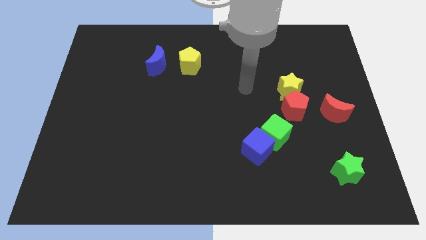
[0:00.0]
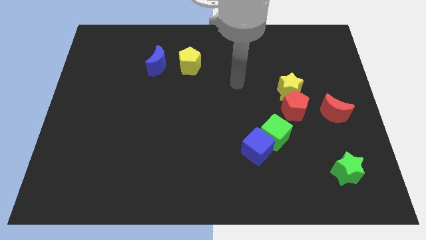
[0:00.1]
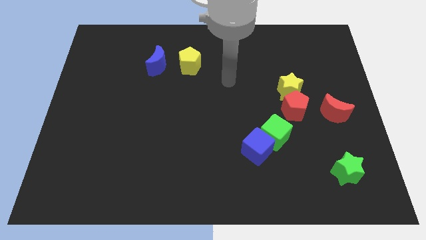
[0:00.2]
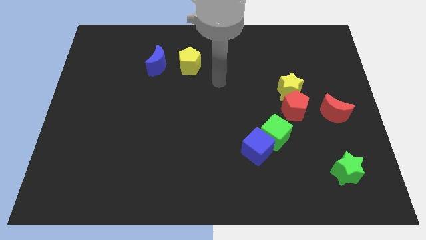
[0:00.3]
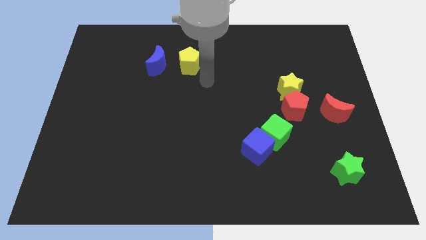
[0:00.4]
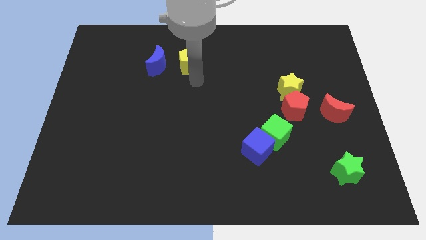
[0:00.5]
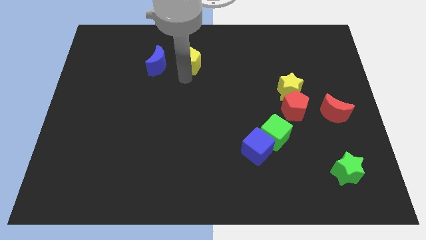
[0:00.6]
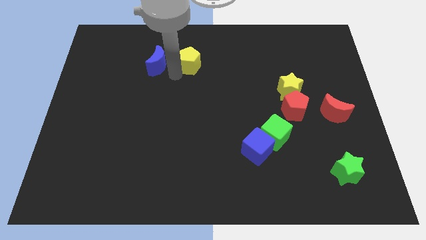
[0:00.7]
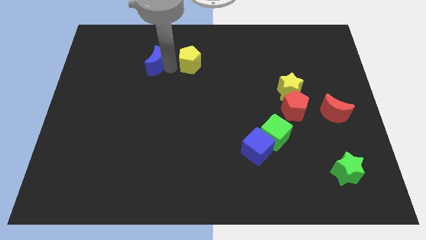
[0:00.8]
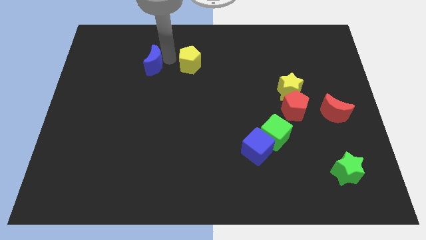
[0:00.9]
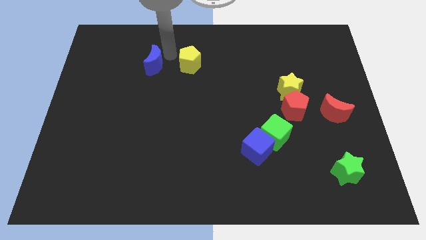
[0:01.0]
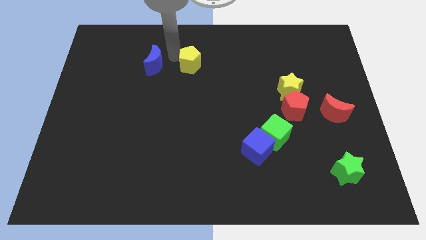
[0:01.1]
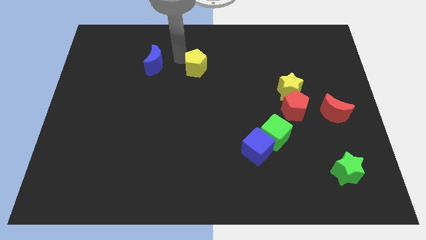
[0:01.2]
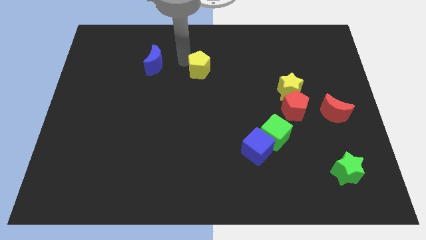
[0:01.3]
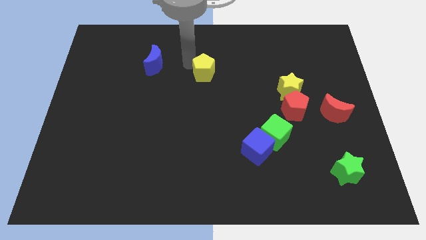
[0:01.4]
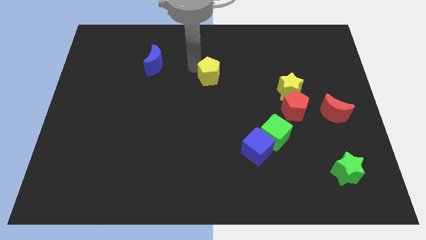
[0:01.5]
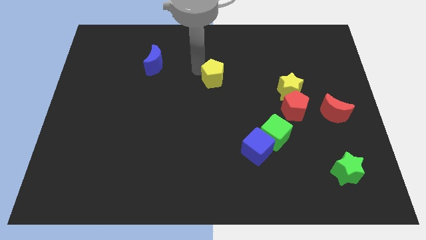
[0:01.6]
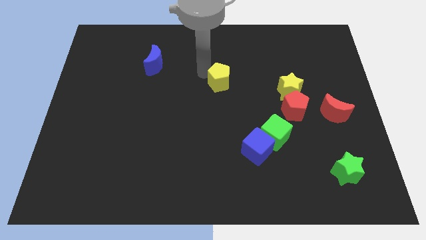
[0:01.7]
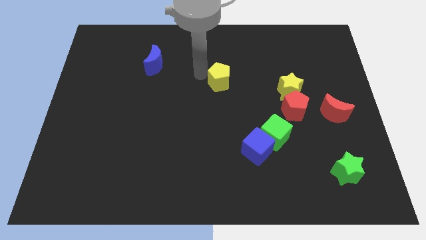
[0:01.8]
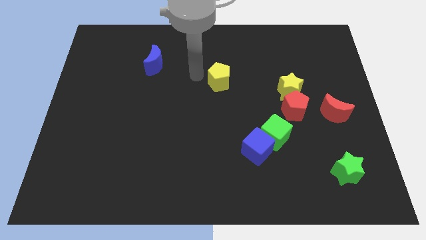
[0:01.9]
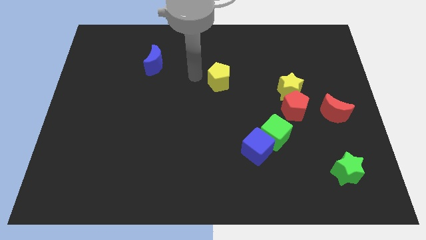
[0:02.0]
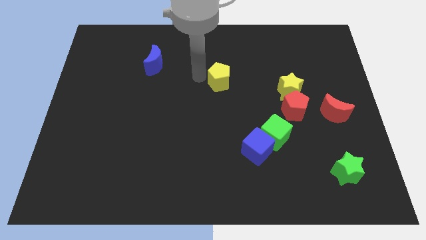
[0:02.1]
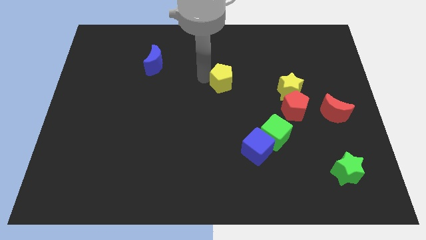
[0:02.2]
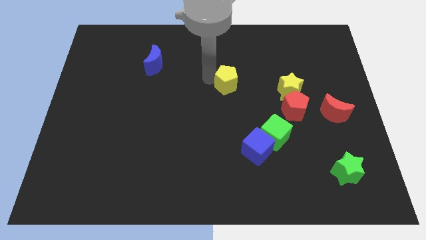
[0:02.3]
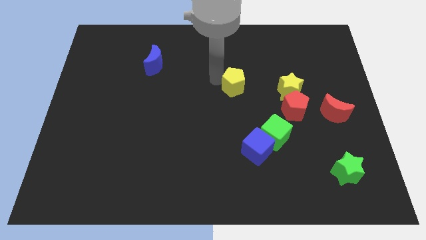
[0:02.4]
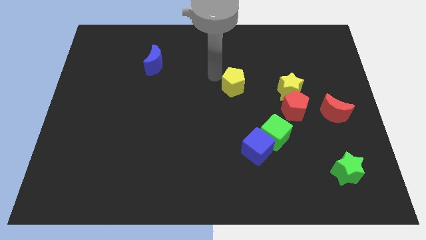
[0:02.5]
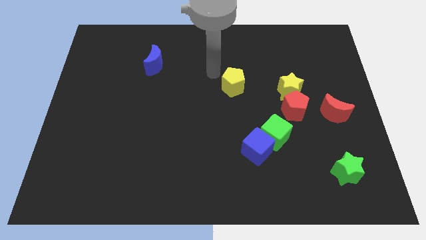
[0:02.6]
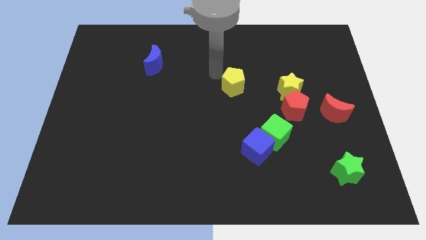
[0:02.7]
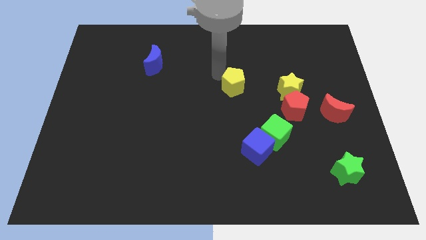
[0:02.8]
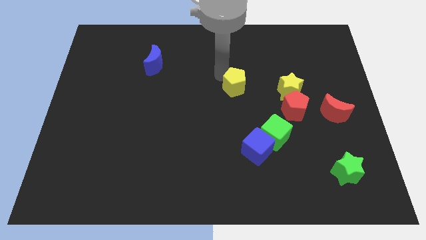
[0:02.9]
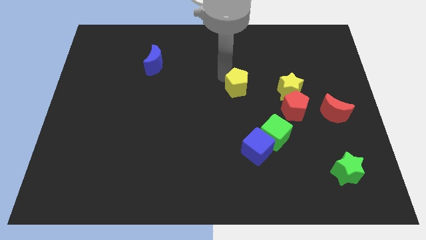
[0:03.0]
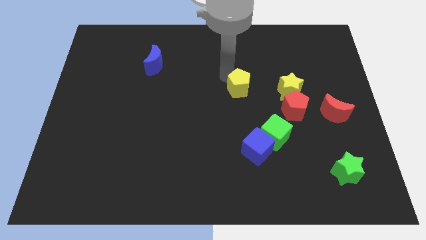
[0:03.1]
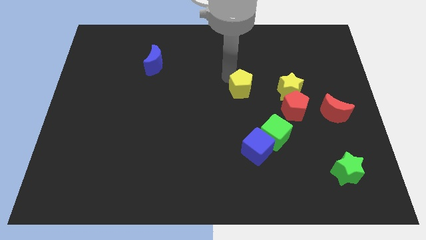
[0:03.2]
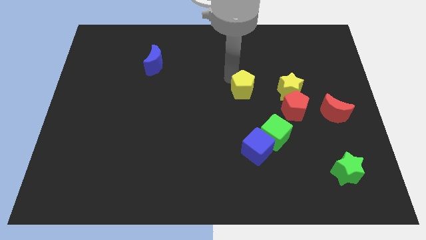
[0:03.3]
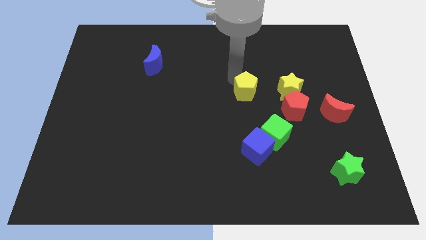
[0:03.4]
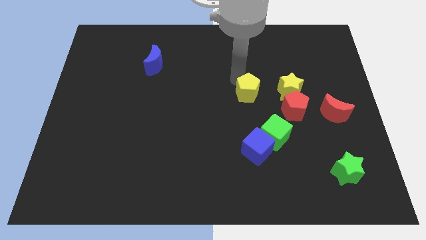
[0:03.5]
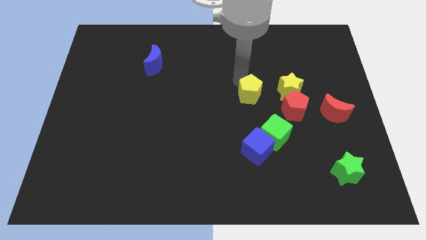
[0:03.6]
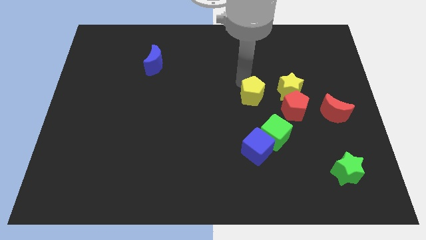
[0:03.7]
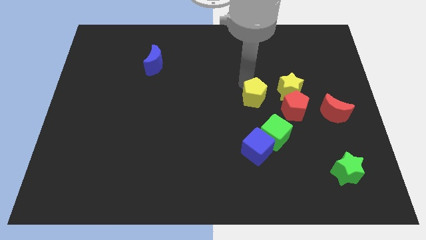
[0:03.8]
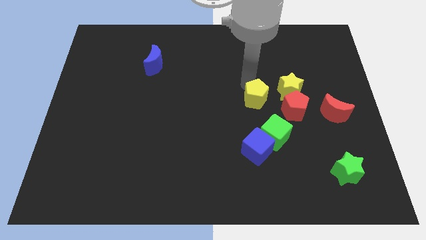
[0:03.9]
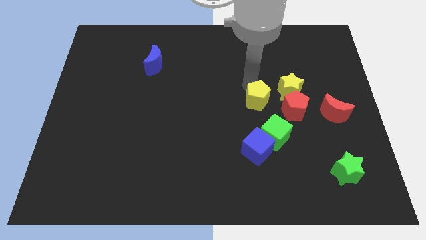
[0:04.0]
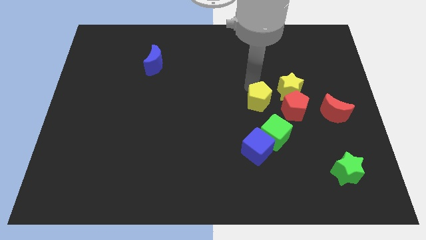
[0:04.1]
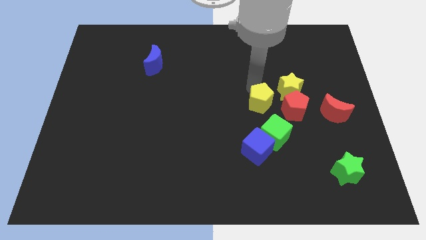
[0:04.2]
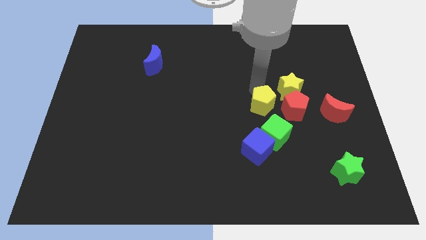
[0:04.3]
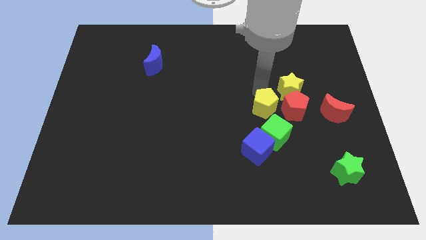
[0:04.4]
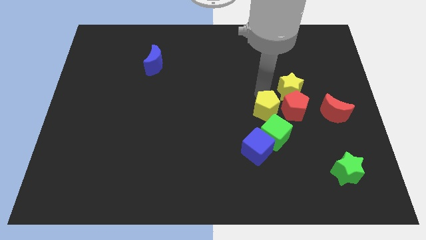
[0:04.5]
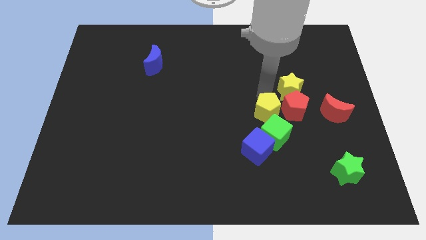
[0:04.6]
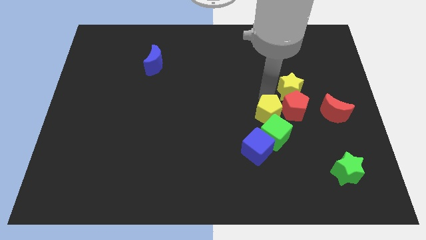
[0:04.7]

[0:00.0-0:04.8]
move the yellow pentagon to the top right side of the blue cube

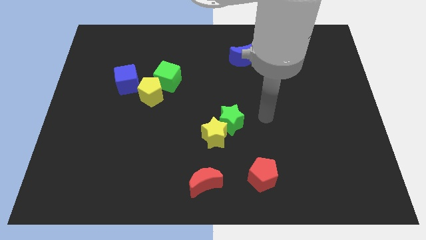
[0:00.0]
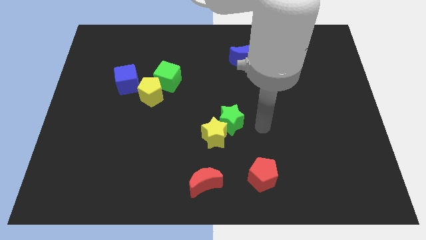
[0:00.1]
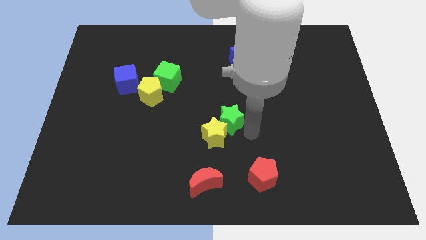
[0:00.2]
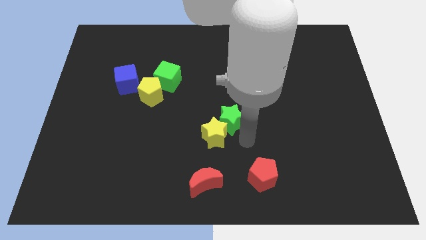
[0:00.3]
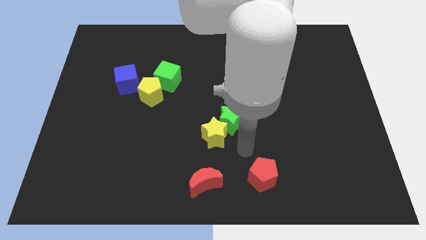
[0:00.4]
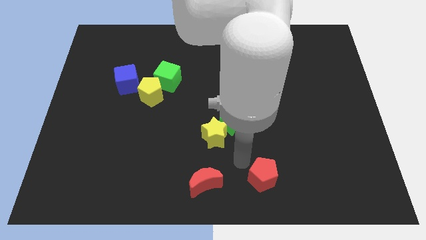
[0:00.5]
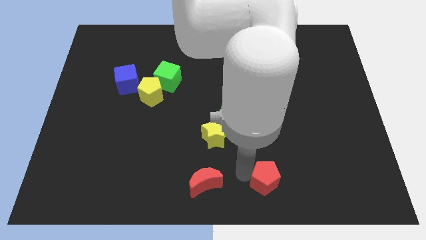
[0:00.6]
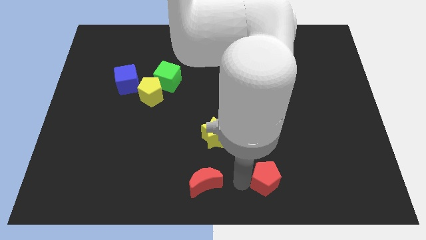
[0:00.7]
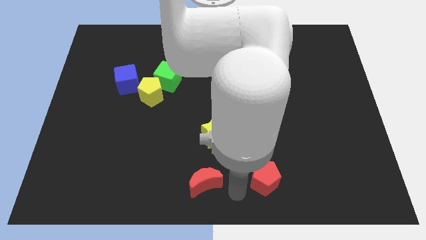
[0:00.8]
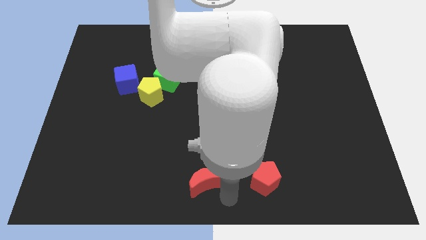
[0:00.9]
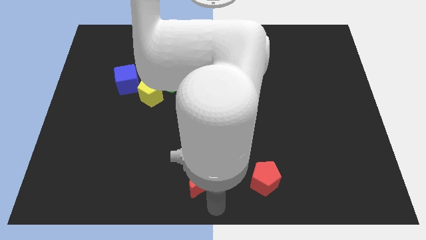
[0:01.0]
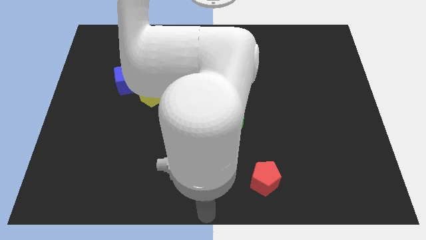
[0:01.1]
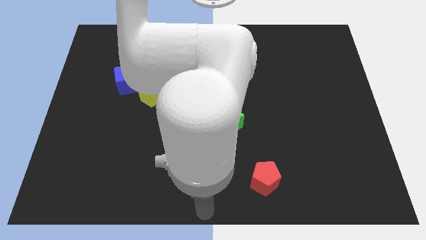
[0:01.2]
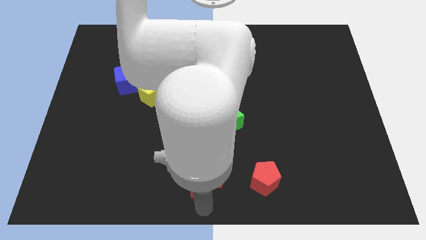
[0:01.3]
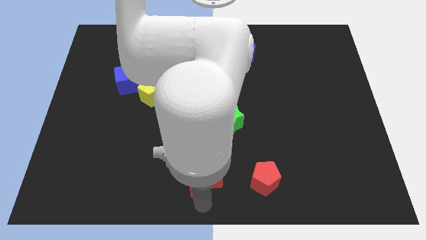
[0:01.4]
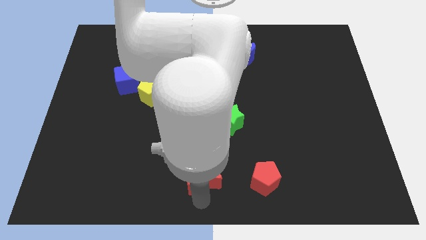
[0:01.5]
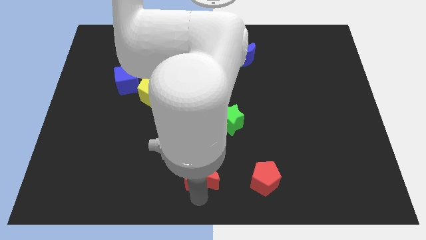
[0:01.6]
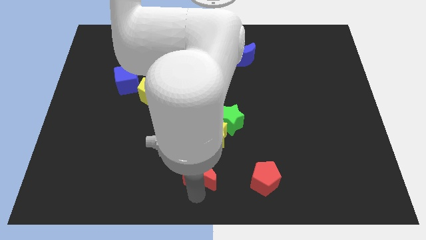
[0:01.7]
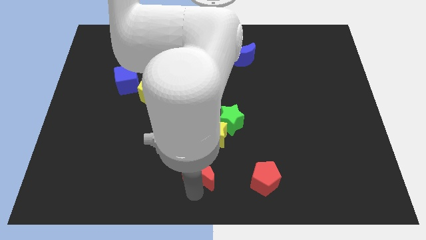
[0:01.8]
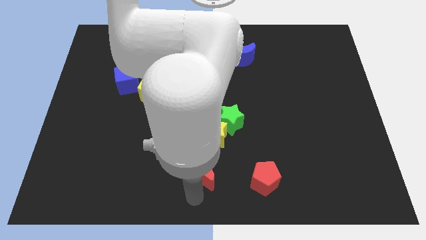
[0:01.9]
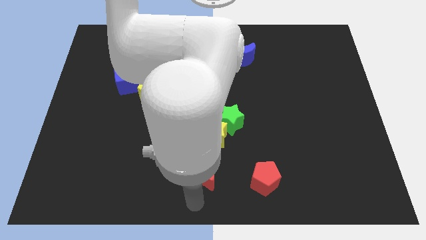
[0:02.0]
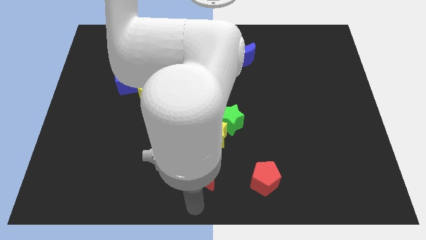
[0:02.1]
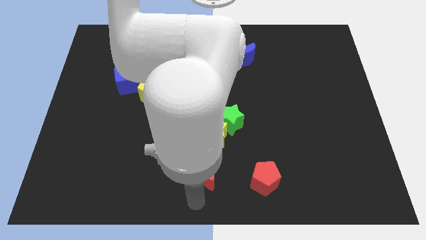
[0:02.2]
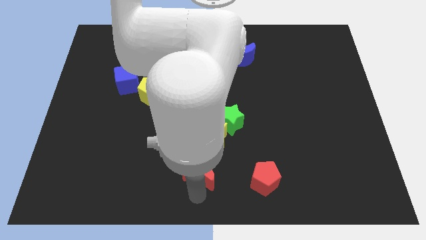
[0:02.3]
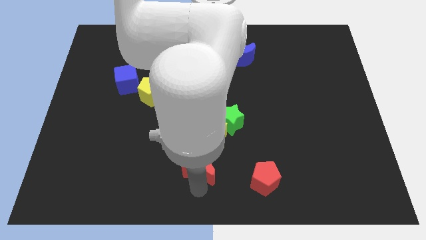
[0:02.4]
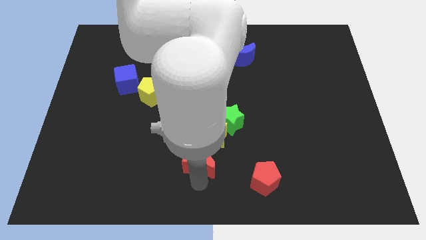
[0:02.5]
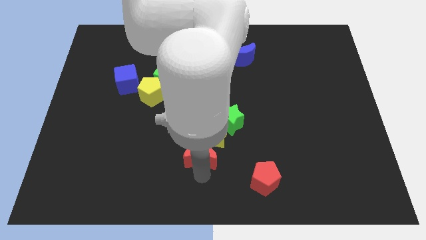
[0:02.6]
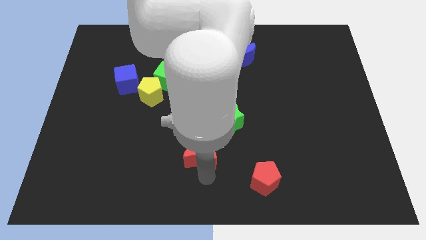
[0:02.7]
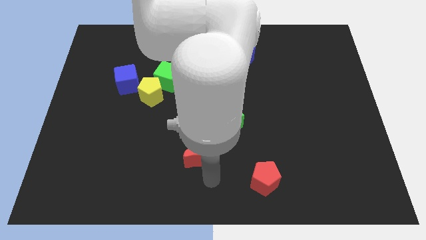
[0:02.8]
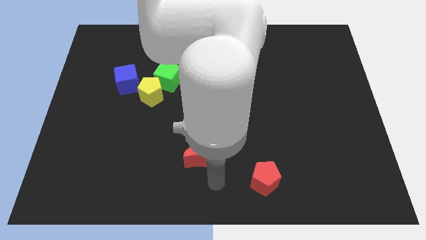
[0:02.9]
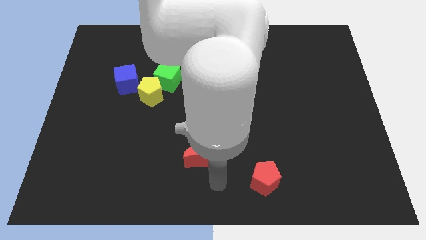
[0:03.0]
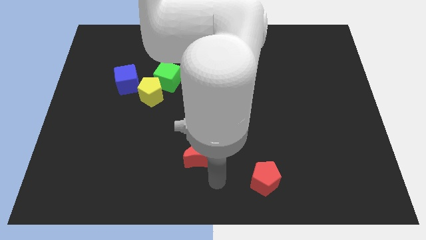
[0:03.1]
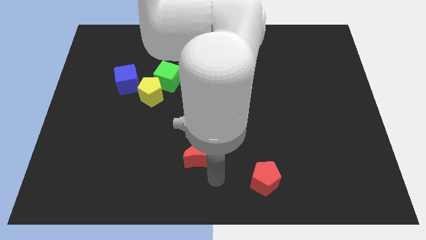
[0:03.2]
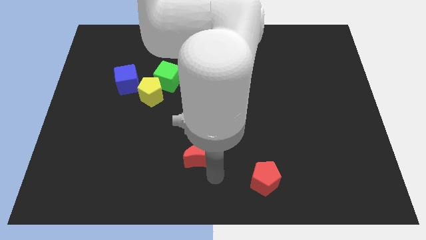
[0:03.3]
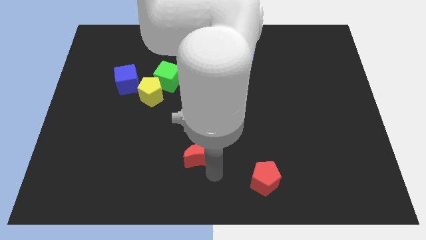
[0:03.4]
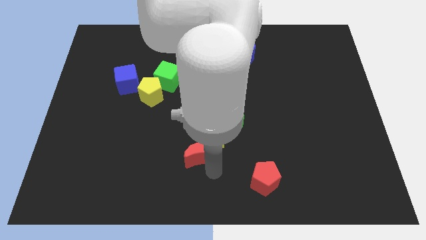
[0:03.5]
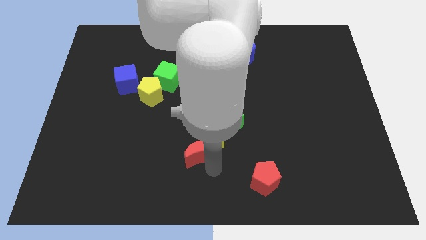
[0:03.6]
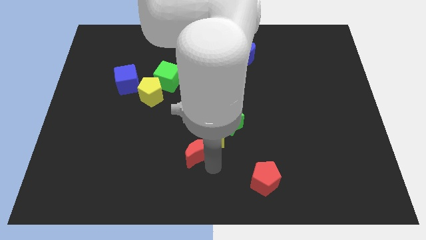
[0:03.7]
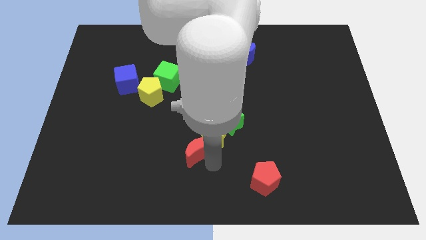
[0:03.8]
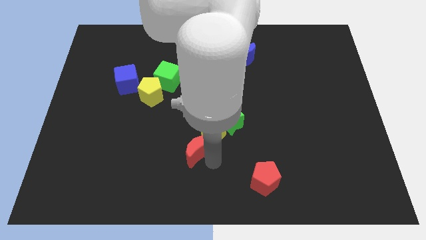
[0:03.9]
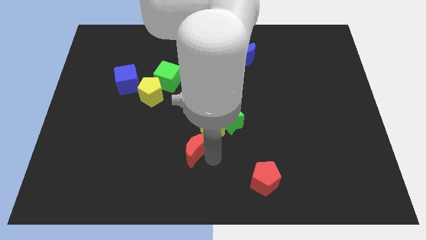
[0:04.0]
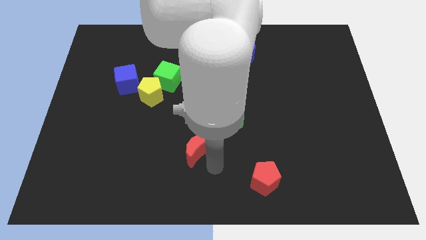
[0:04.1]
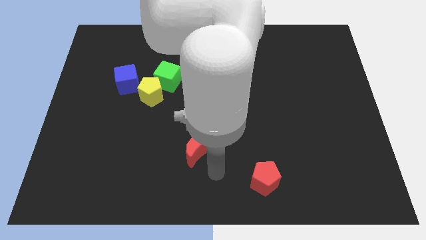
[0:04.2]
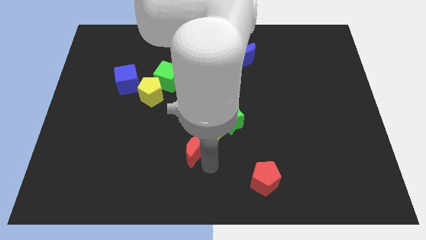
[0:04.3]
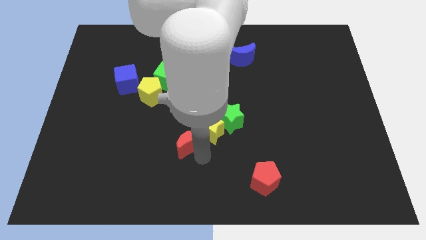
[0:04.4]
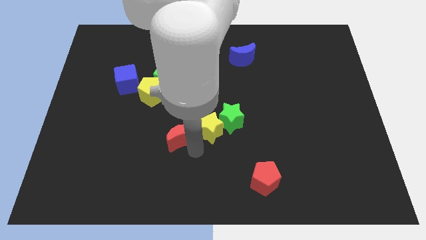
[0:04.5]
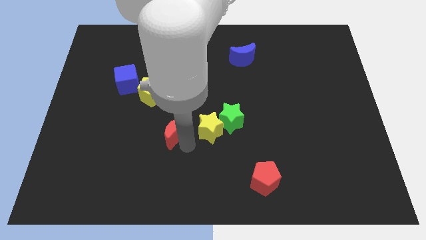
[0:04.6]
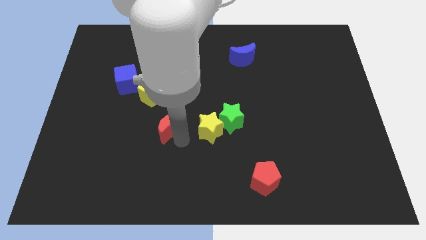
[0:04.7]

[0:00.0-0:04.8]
slide the red moon to the bottom side of the green cube
